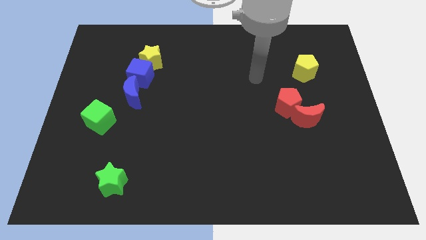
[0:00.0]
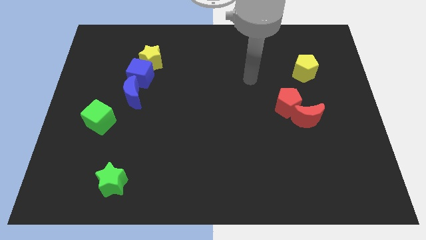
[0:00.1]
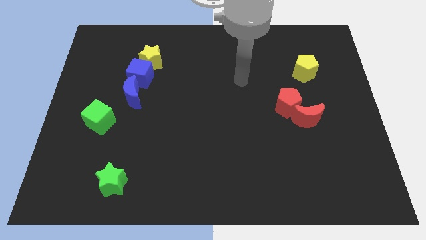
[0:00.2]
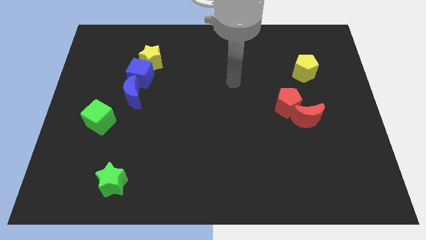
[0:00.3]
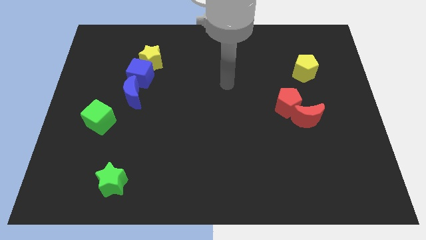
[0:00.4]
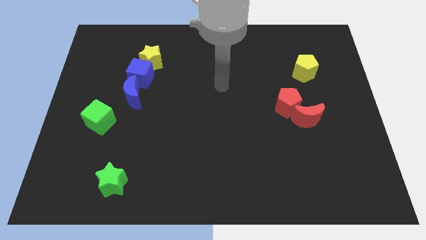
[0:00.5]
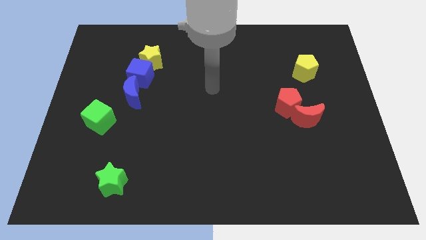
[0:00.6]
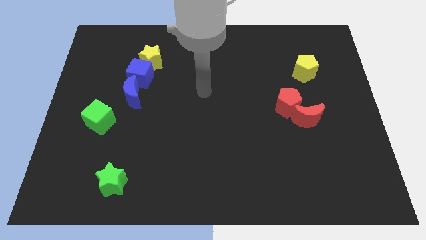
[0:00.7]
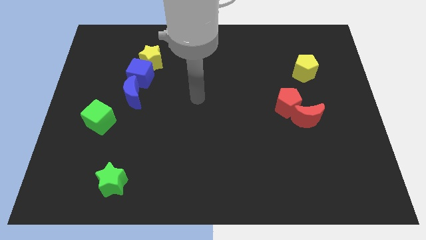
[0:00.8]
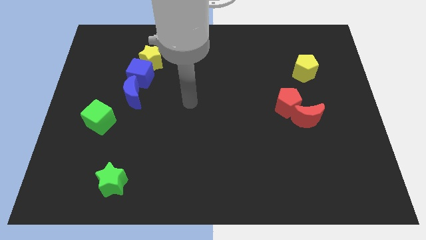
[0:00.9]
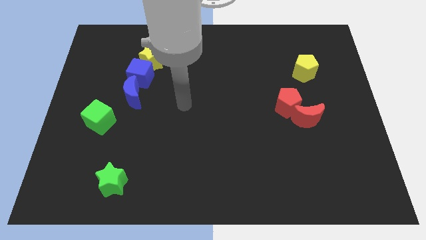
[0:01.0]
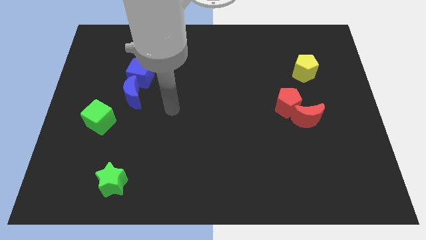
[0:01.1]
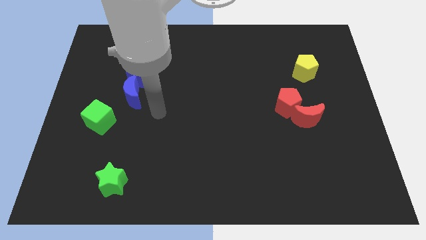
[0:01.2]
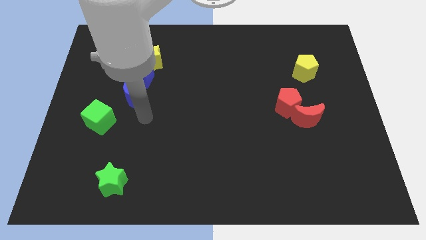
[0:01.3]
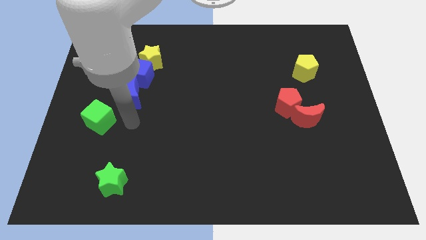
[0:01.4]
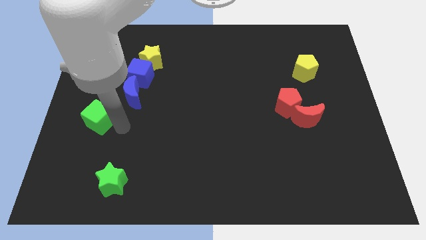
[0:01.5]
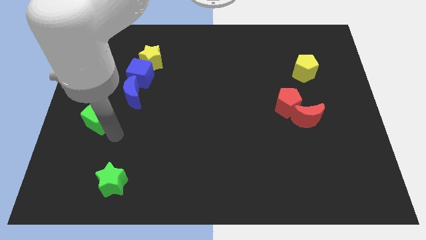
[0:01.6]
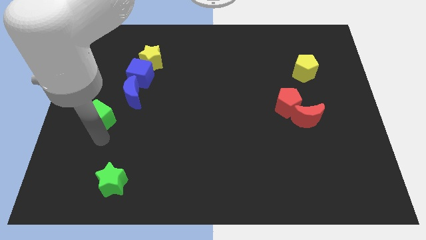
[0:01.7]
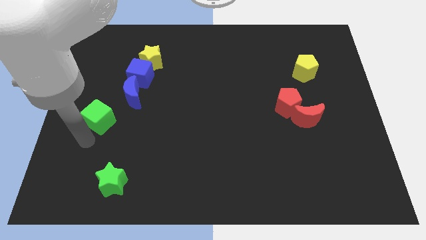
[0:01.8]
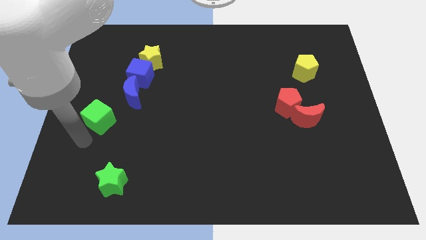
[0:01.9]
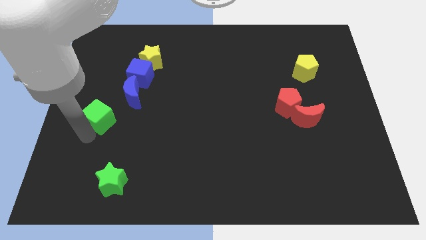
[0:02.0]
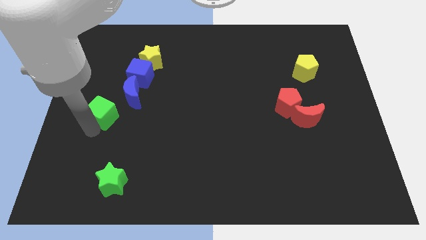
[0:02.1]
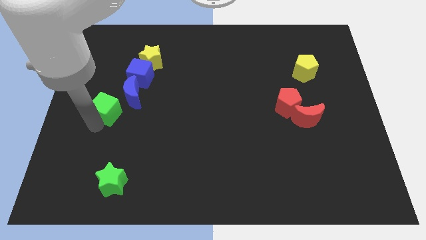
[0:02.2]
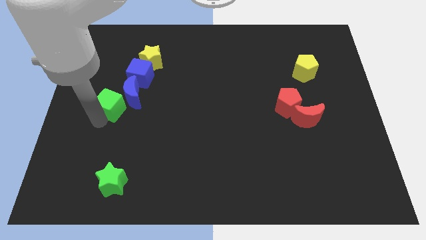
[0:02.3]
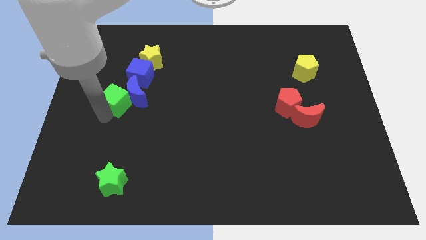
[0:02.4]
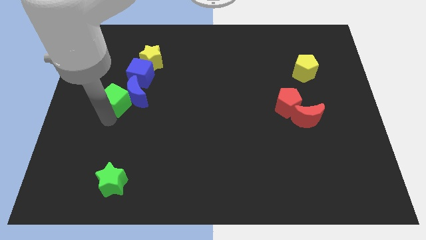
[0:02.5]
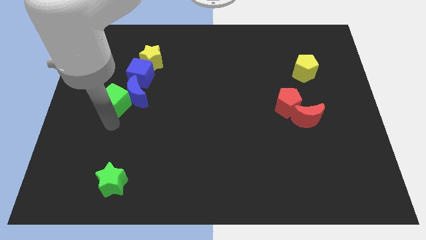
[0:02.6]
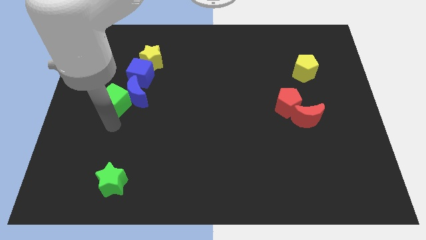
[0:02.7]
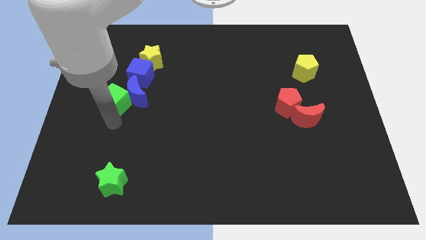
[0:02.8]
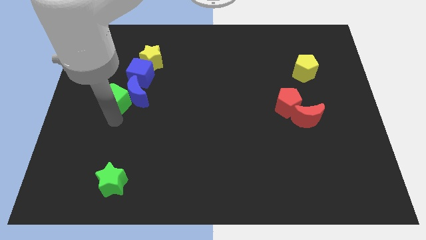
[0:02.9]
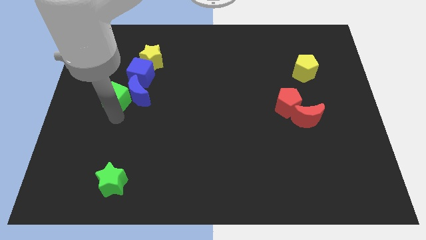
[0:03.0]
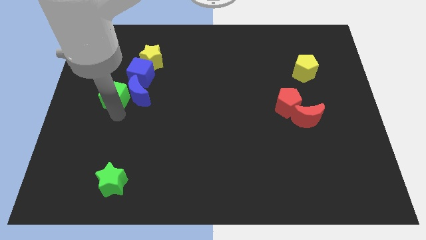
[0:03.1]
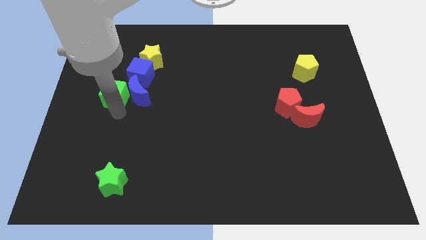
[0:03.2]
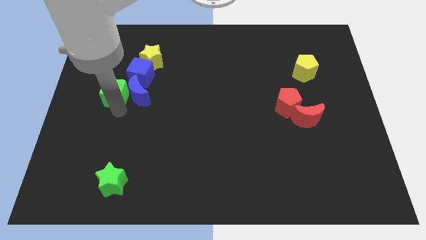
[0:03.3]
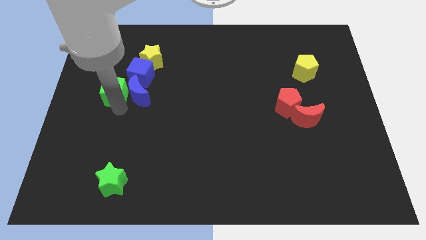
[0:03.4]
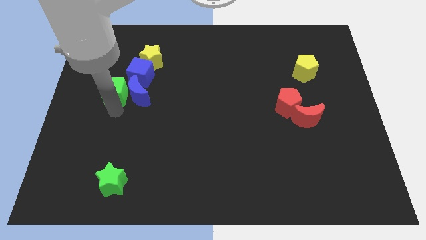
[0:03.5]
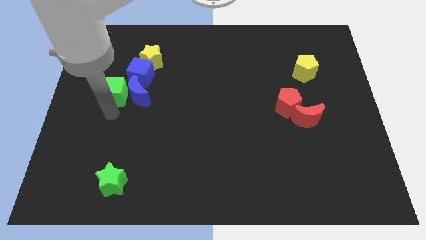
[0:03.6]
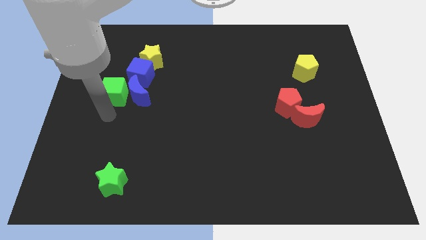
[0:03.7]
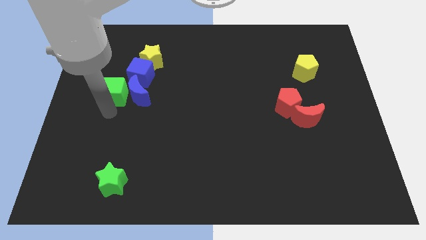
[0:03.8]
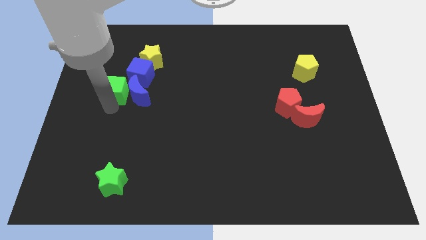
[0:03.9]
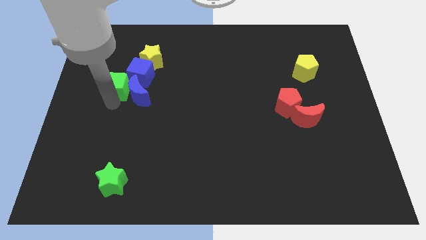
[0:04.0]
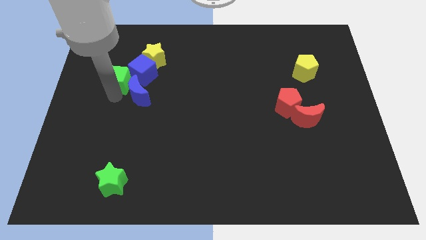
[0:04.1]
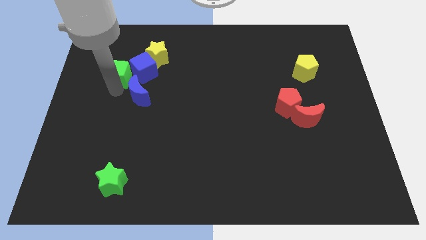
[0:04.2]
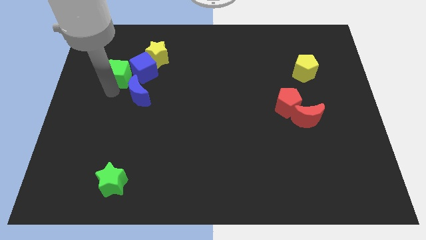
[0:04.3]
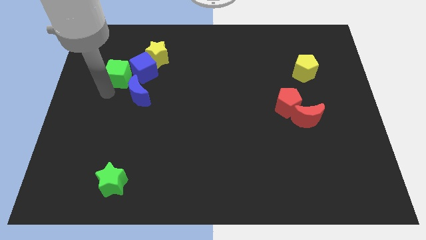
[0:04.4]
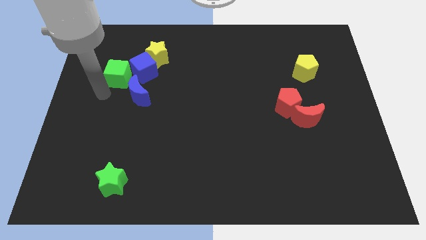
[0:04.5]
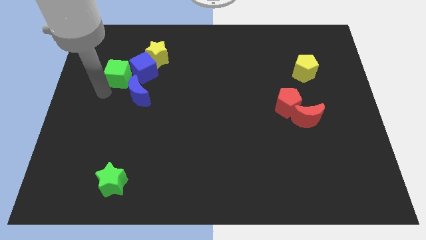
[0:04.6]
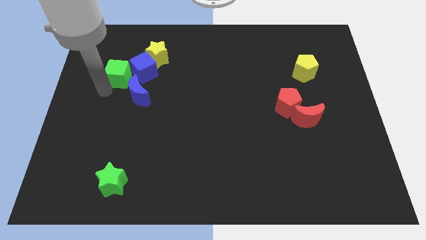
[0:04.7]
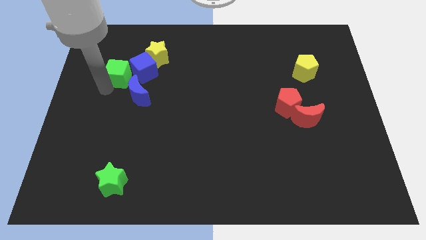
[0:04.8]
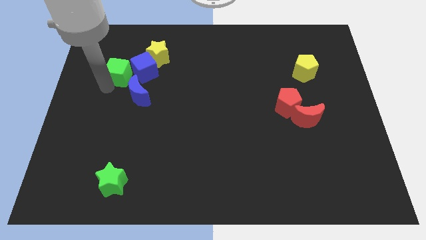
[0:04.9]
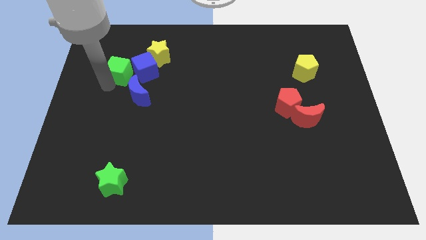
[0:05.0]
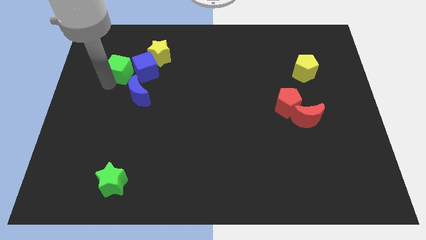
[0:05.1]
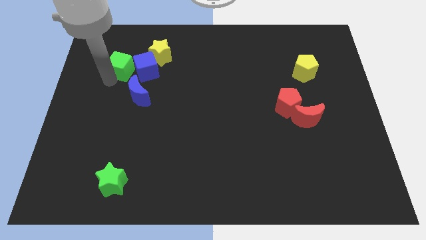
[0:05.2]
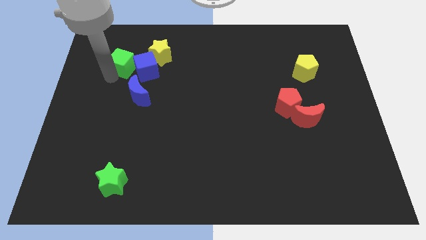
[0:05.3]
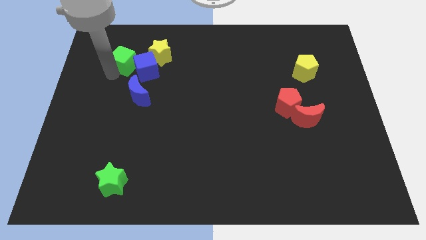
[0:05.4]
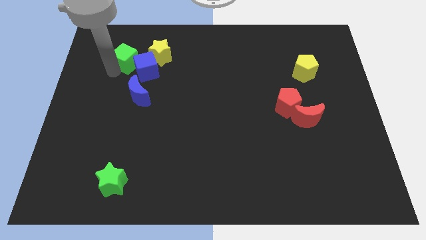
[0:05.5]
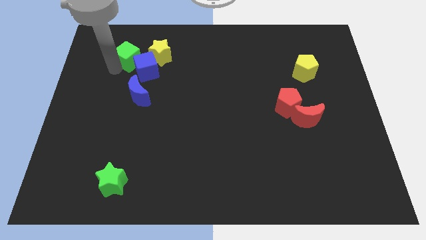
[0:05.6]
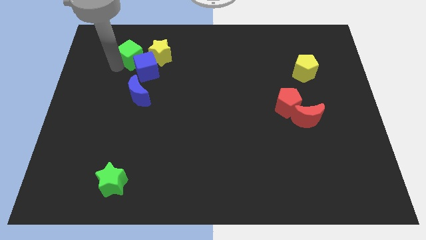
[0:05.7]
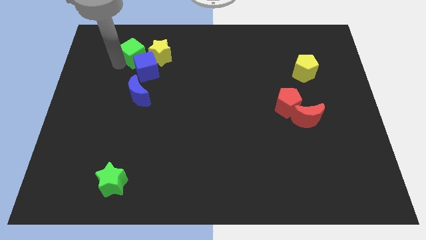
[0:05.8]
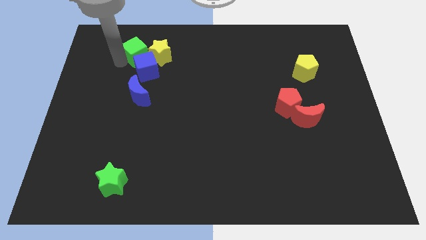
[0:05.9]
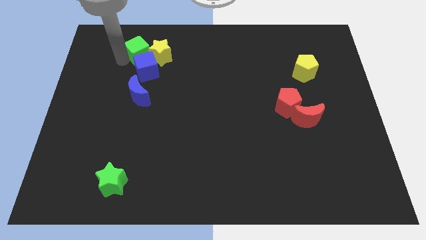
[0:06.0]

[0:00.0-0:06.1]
move the green cube to the yellow star

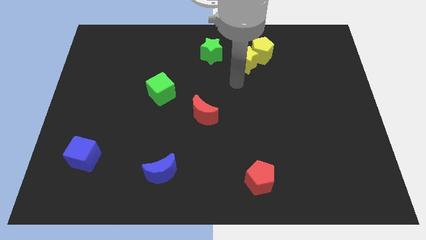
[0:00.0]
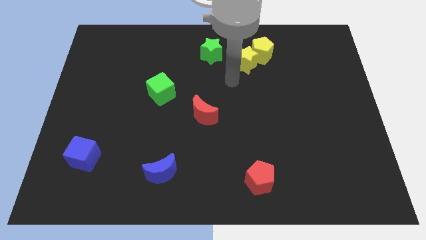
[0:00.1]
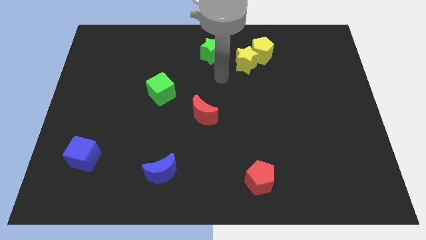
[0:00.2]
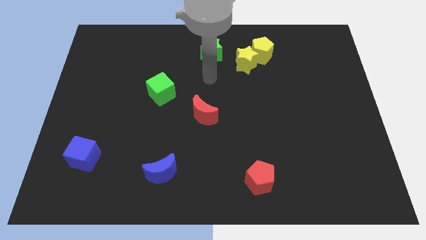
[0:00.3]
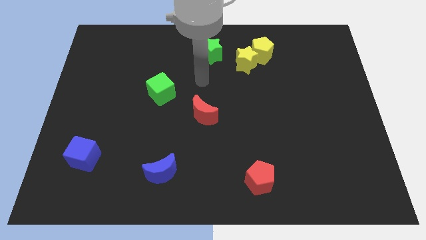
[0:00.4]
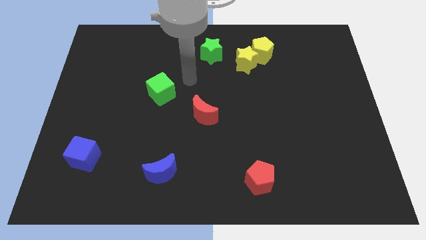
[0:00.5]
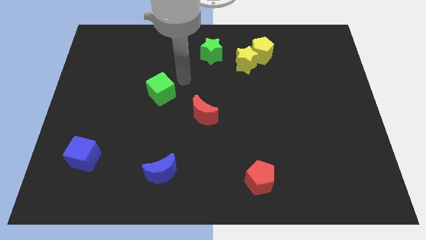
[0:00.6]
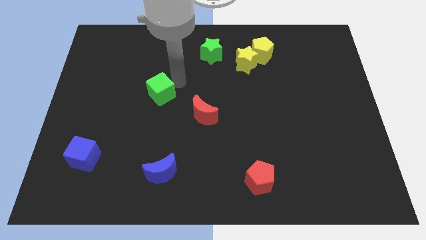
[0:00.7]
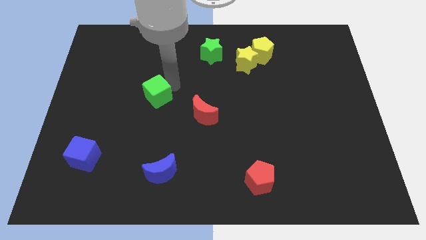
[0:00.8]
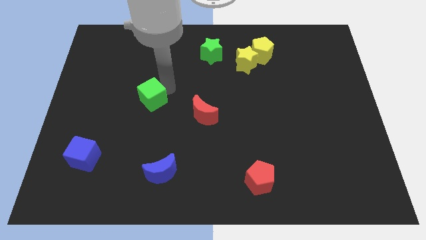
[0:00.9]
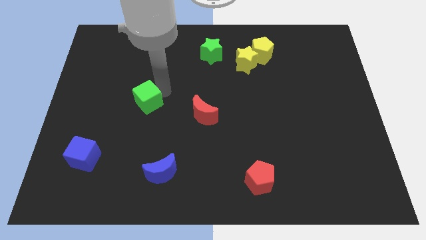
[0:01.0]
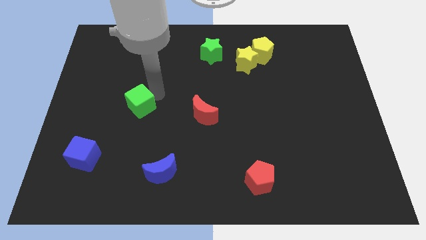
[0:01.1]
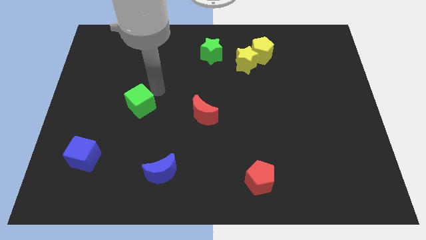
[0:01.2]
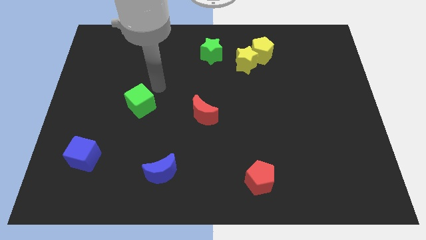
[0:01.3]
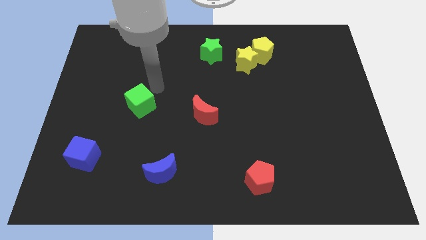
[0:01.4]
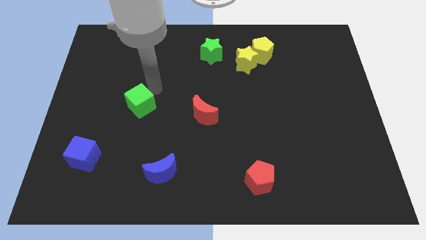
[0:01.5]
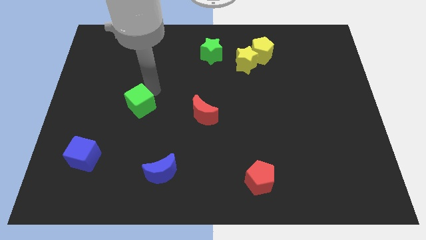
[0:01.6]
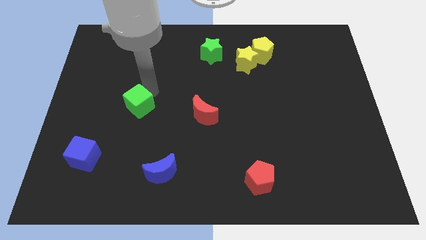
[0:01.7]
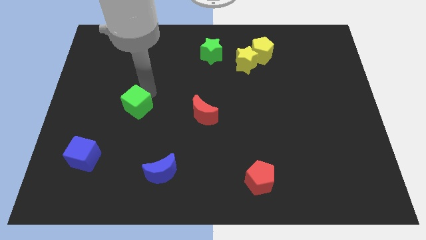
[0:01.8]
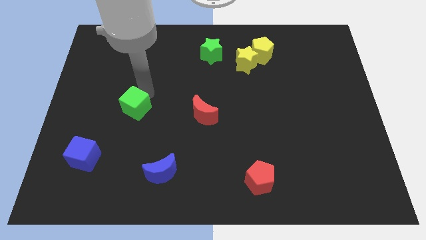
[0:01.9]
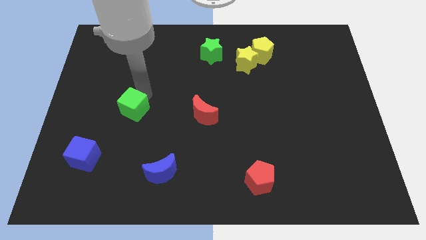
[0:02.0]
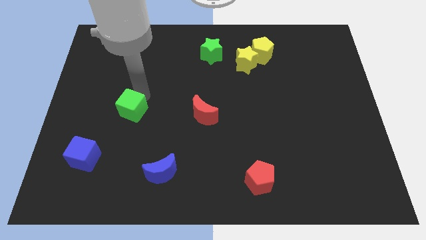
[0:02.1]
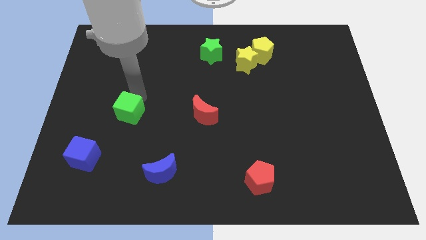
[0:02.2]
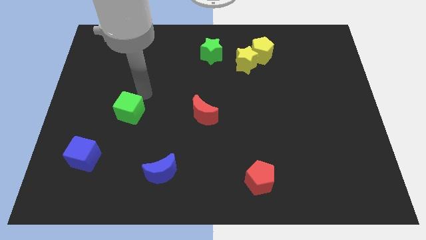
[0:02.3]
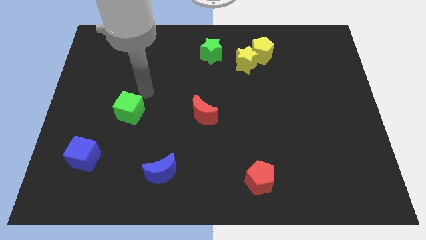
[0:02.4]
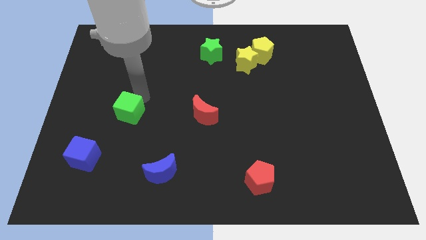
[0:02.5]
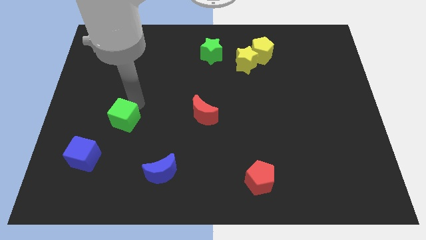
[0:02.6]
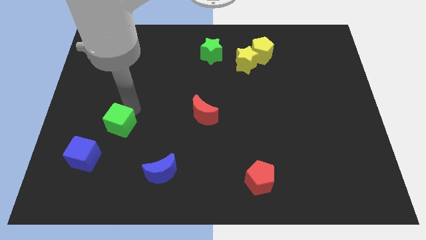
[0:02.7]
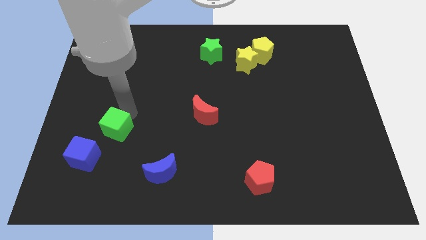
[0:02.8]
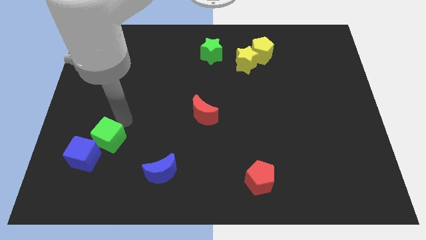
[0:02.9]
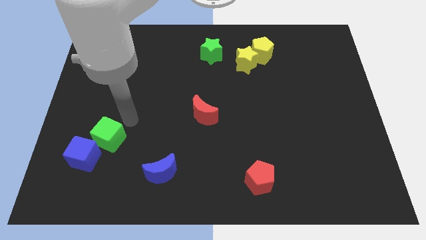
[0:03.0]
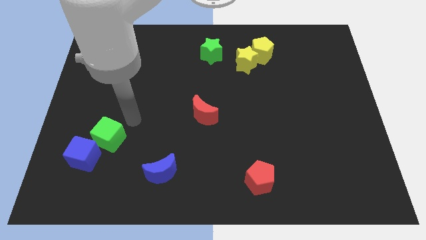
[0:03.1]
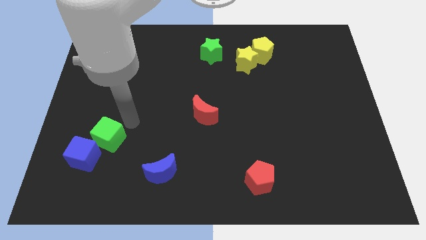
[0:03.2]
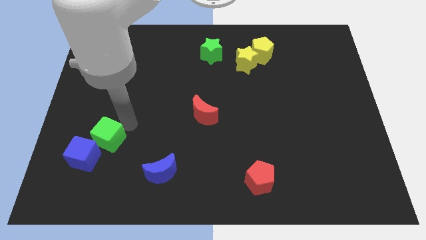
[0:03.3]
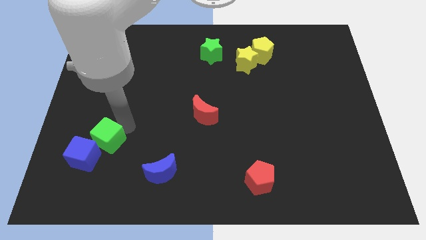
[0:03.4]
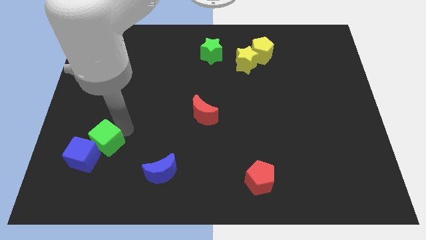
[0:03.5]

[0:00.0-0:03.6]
slide the green cube next to the blue cube
